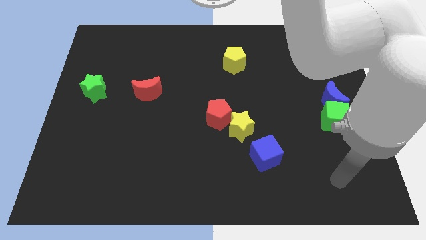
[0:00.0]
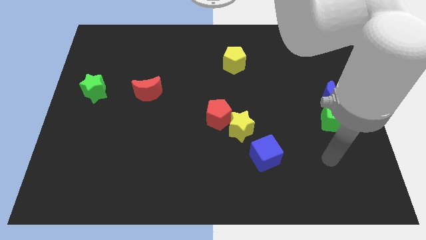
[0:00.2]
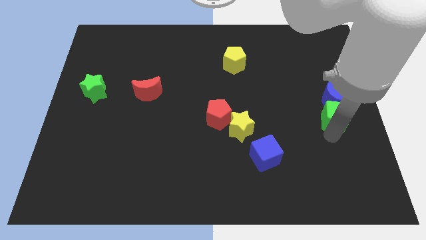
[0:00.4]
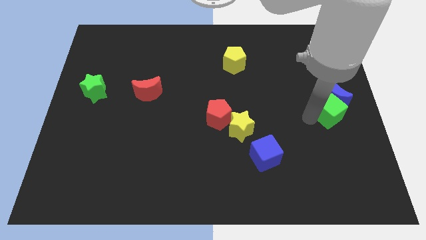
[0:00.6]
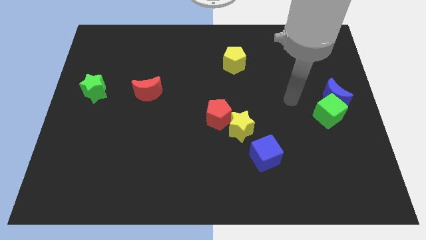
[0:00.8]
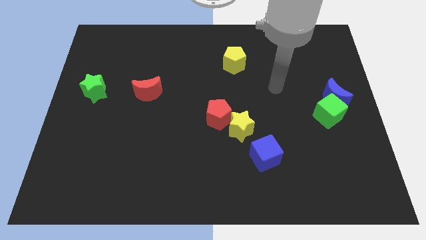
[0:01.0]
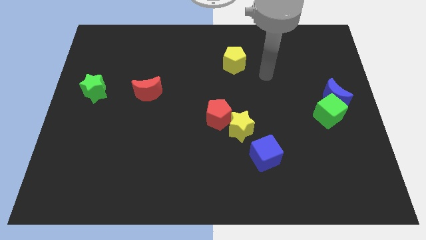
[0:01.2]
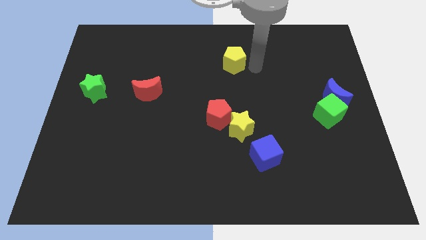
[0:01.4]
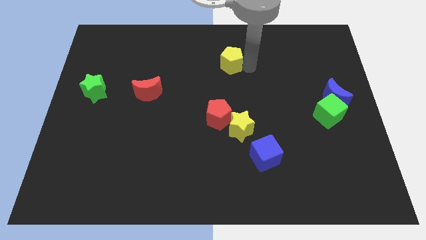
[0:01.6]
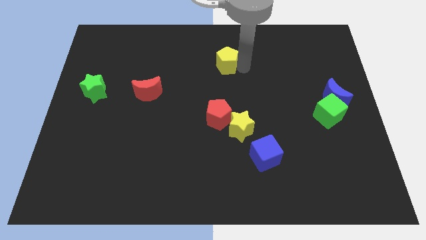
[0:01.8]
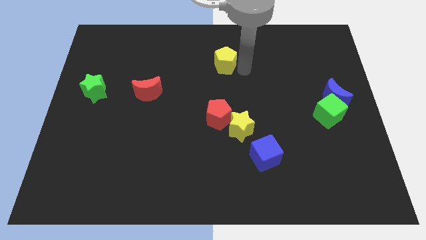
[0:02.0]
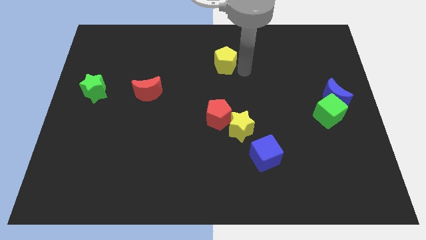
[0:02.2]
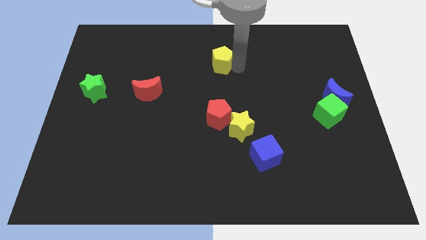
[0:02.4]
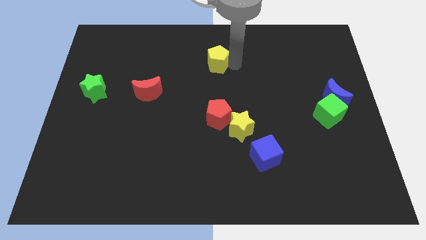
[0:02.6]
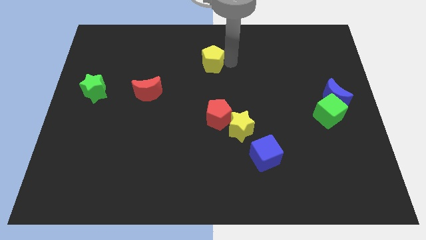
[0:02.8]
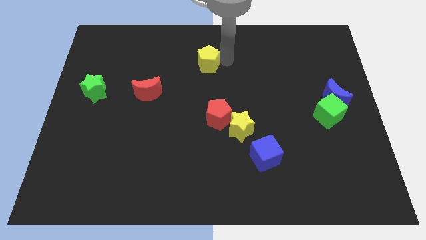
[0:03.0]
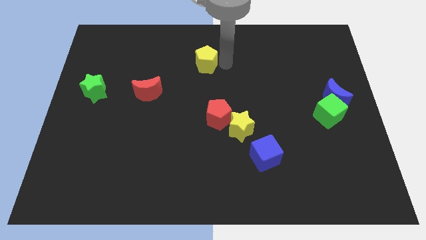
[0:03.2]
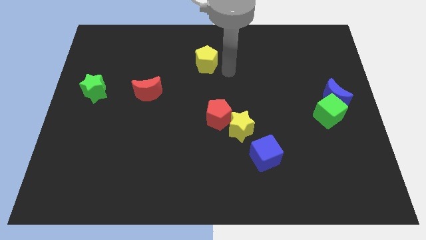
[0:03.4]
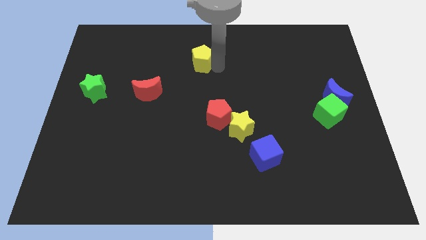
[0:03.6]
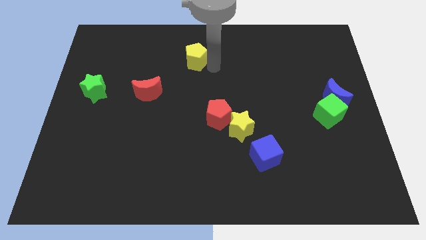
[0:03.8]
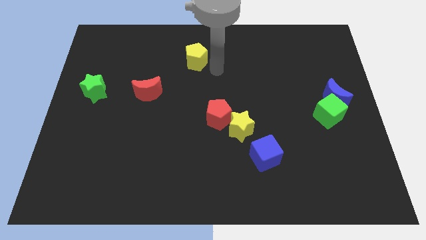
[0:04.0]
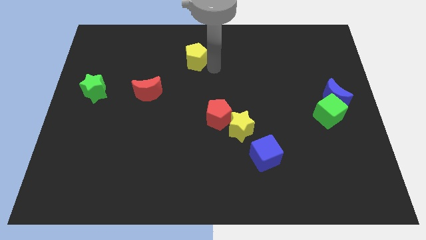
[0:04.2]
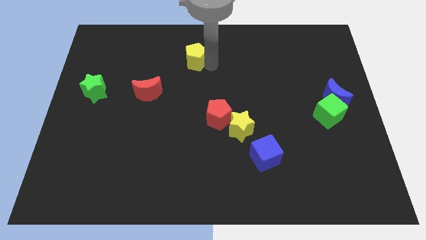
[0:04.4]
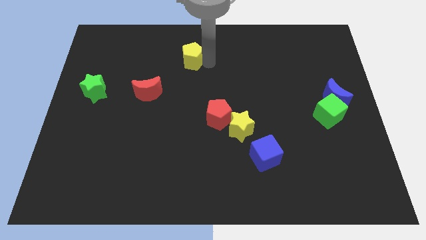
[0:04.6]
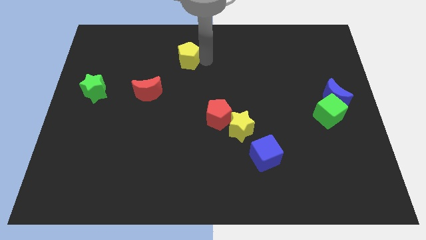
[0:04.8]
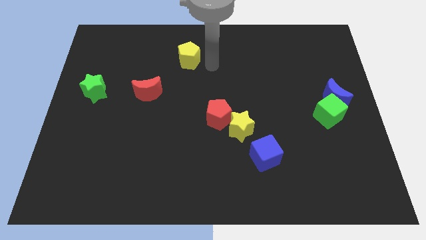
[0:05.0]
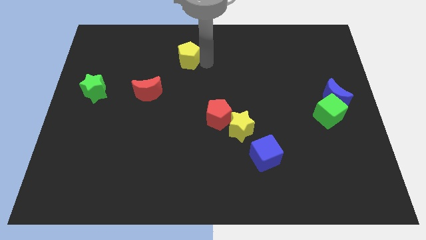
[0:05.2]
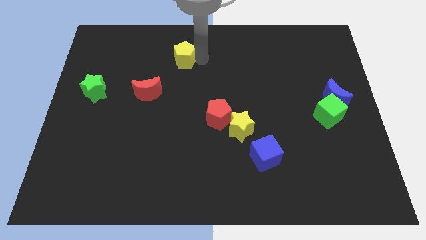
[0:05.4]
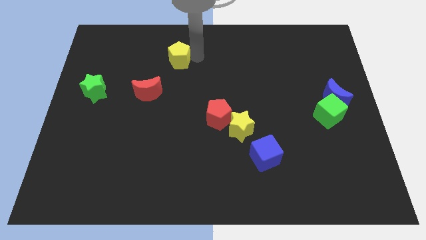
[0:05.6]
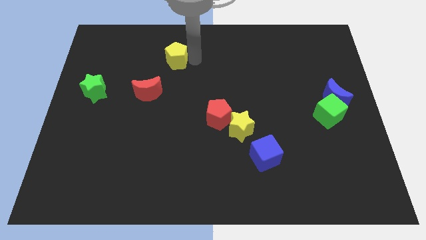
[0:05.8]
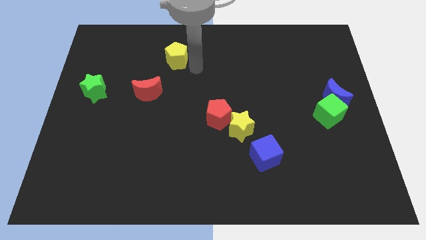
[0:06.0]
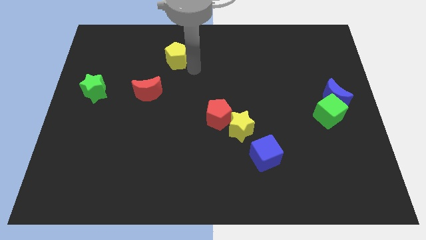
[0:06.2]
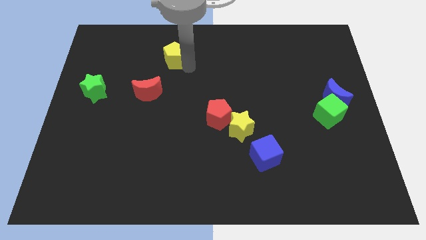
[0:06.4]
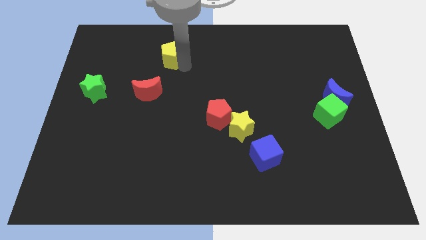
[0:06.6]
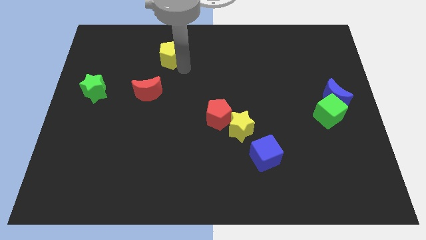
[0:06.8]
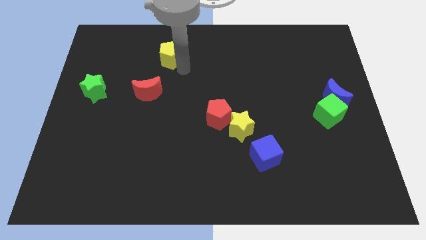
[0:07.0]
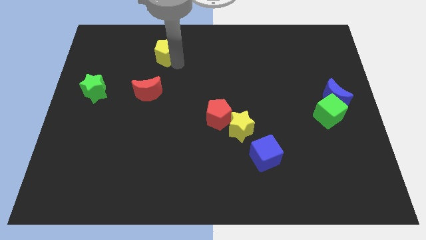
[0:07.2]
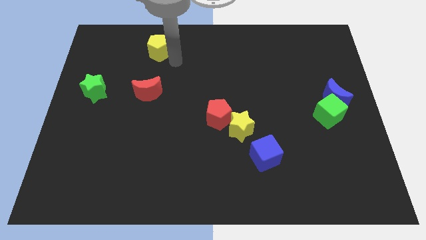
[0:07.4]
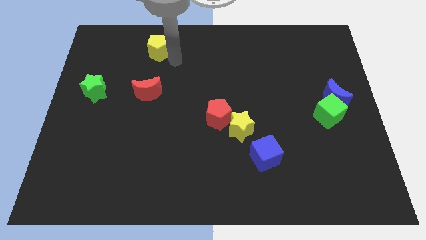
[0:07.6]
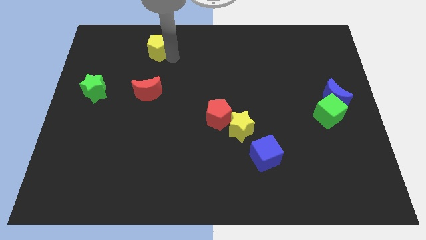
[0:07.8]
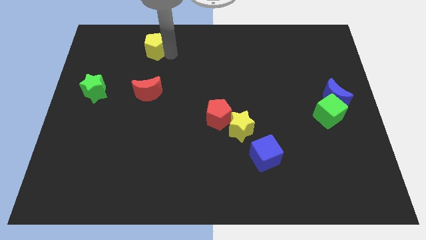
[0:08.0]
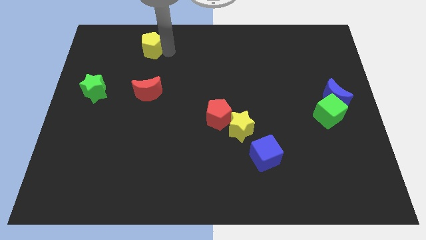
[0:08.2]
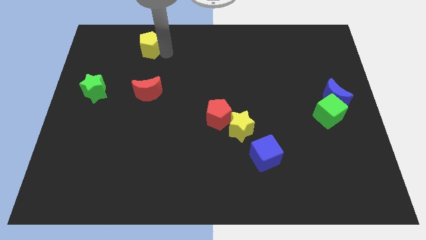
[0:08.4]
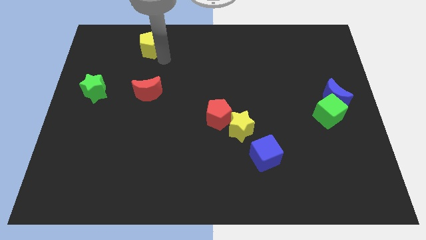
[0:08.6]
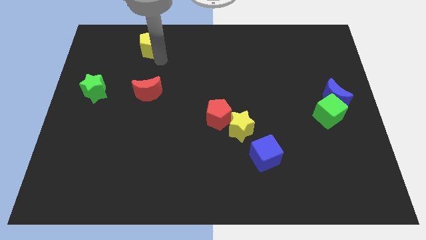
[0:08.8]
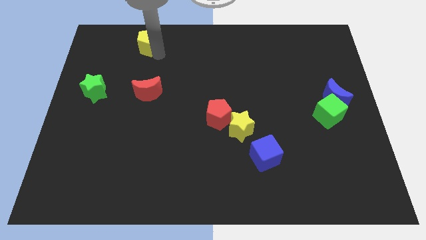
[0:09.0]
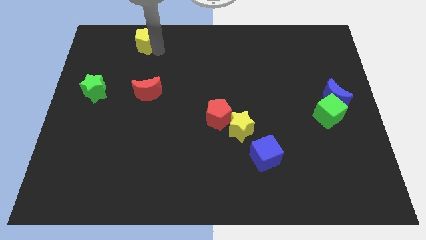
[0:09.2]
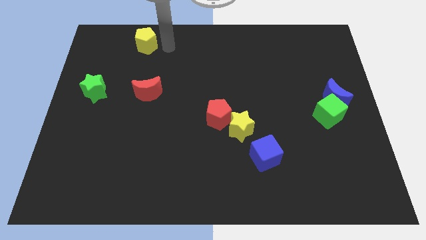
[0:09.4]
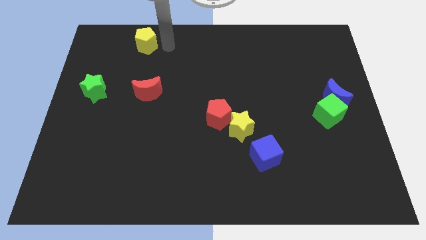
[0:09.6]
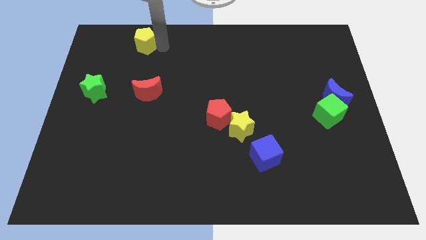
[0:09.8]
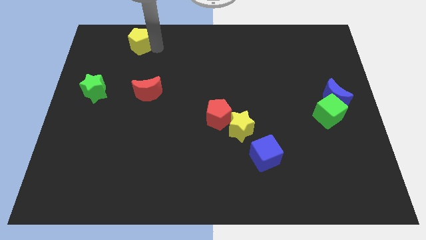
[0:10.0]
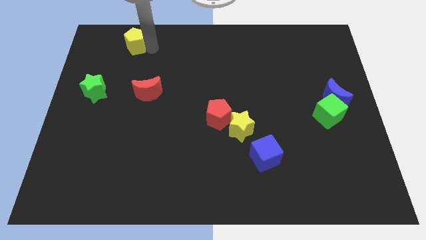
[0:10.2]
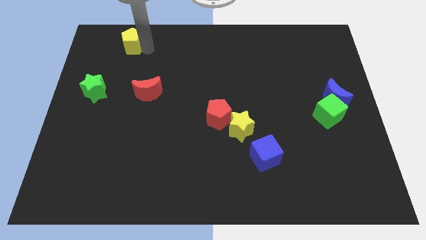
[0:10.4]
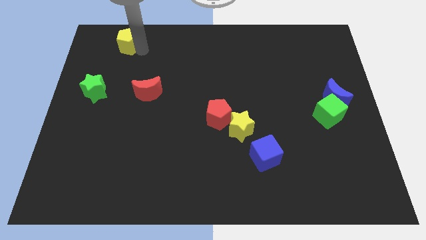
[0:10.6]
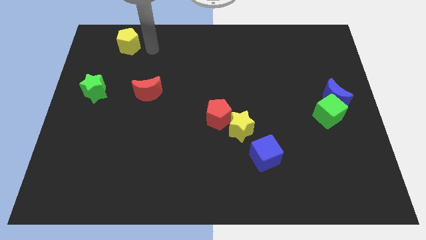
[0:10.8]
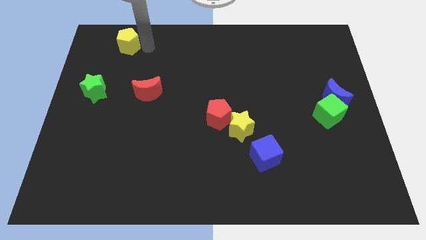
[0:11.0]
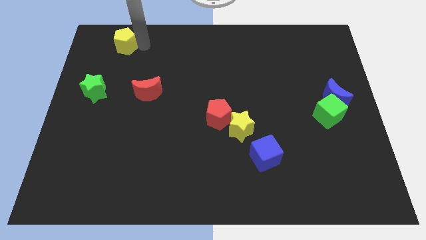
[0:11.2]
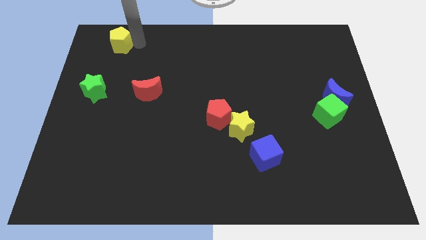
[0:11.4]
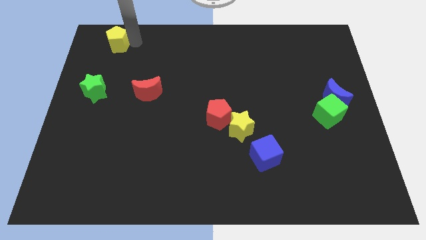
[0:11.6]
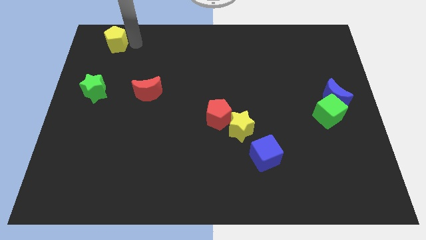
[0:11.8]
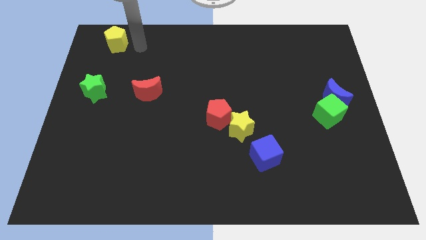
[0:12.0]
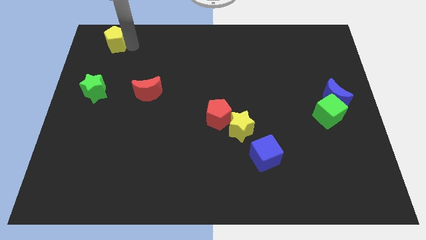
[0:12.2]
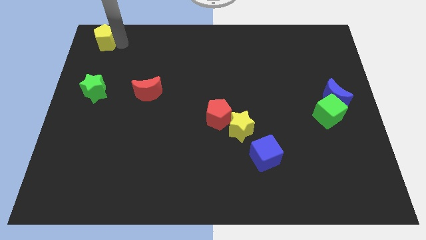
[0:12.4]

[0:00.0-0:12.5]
push the yellow pentagon to the top left of the board
